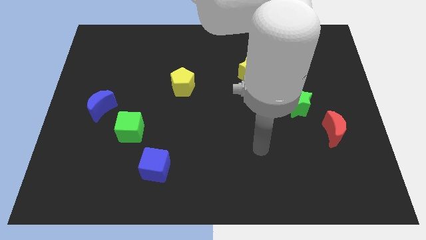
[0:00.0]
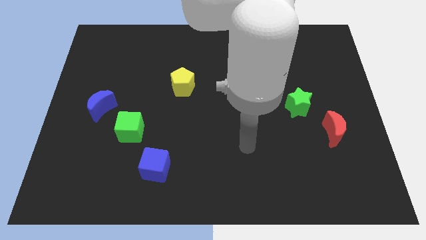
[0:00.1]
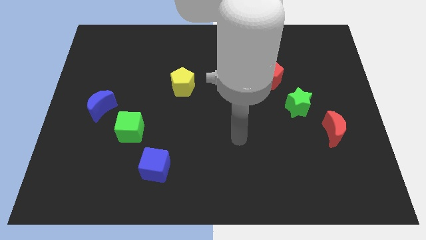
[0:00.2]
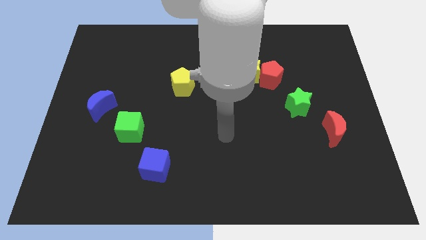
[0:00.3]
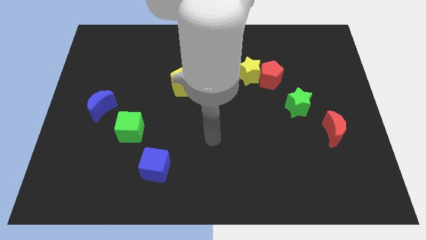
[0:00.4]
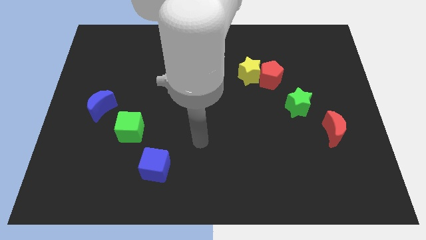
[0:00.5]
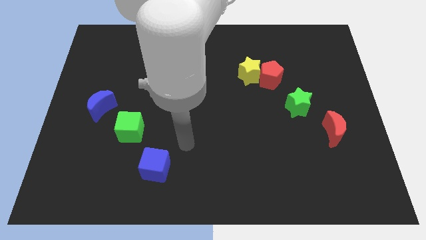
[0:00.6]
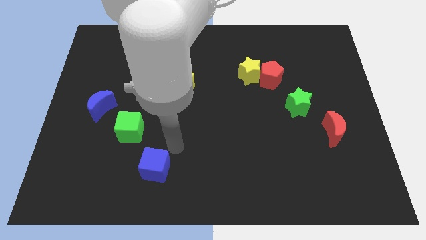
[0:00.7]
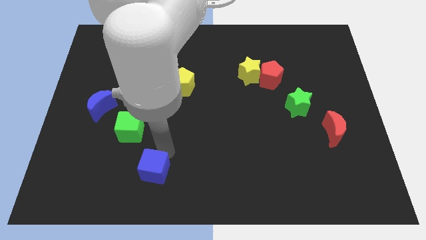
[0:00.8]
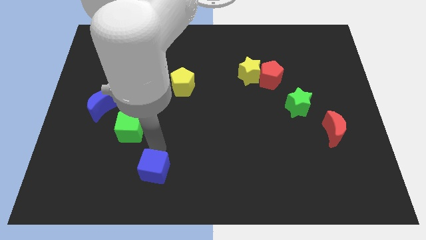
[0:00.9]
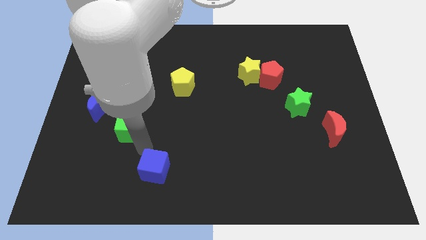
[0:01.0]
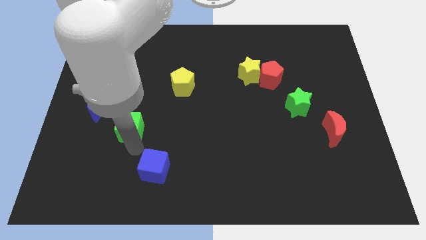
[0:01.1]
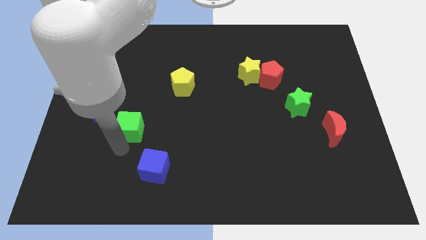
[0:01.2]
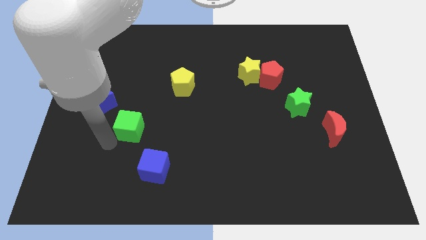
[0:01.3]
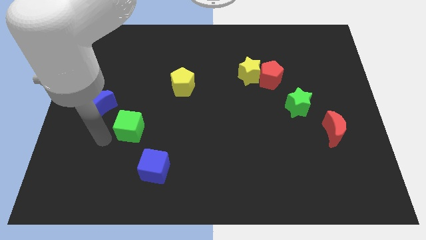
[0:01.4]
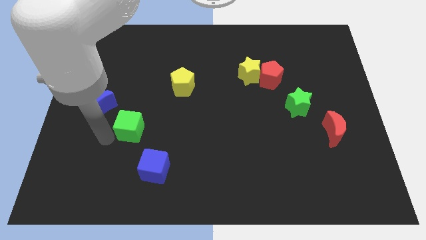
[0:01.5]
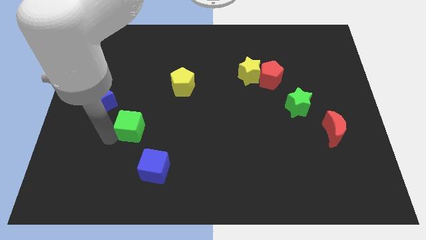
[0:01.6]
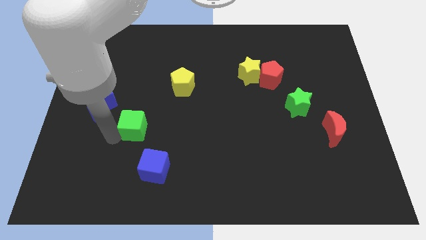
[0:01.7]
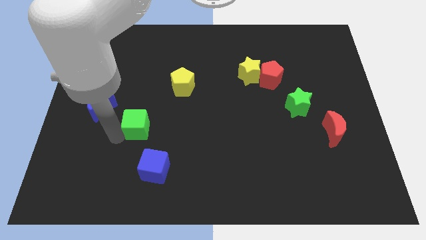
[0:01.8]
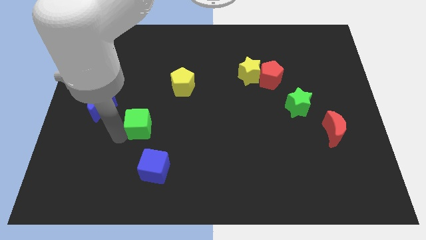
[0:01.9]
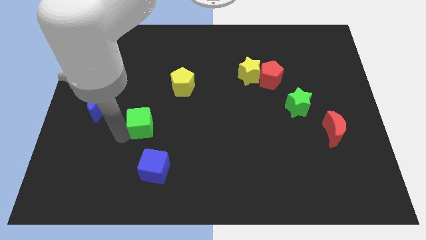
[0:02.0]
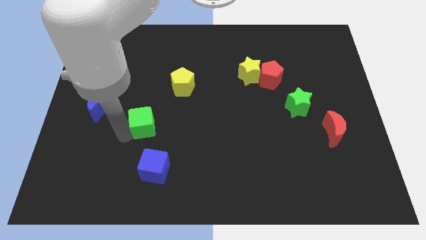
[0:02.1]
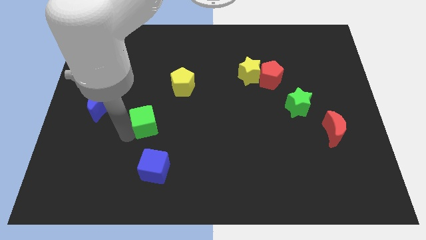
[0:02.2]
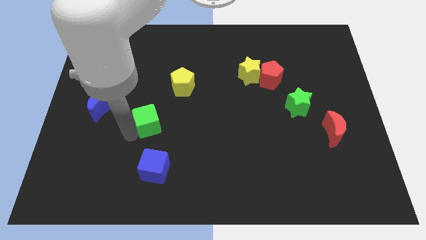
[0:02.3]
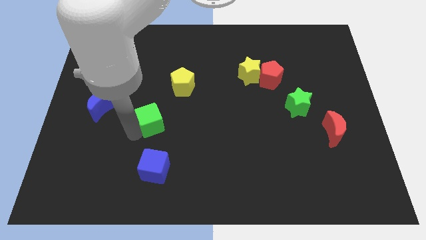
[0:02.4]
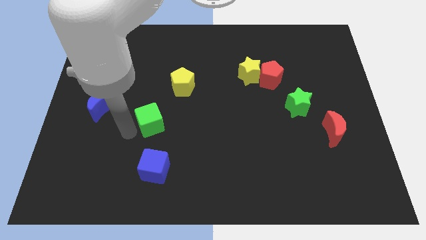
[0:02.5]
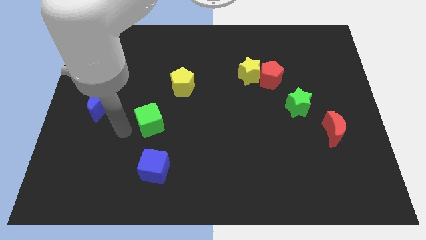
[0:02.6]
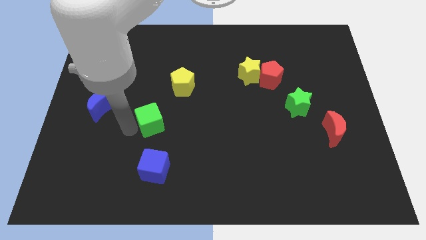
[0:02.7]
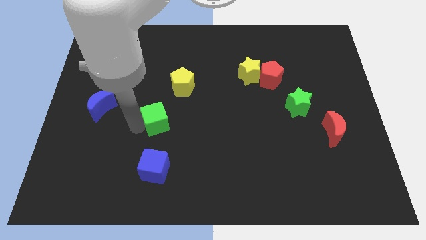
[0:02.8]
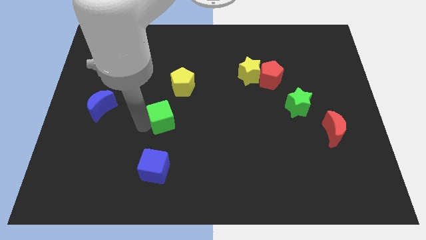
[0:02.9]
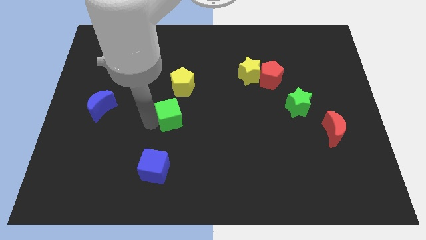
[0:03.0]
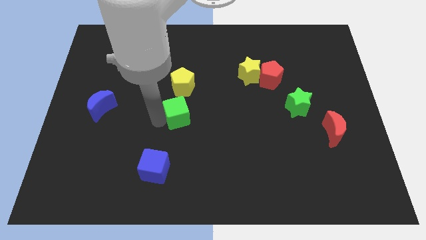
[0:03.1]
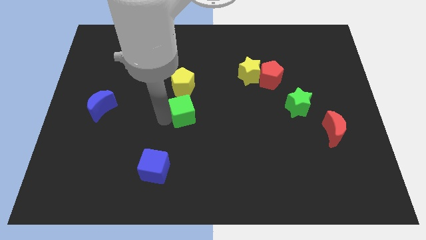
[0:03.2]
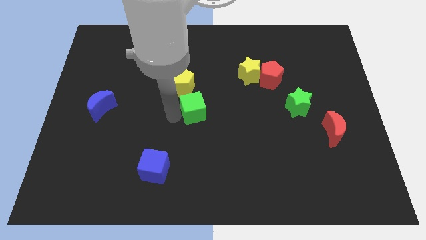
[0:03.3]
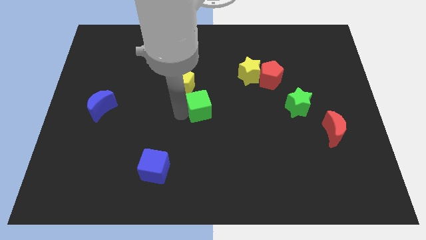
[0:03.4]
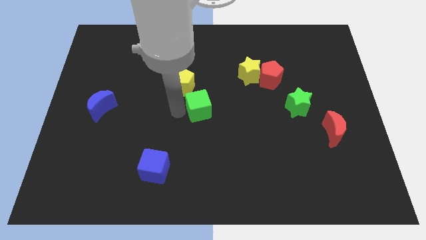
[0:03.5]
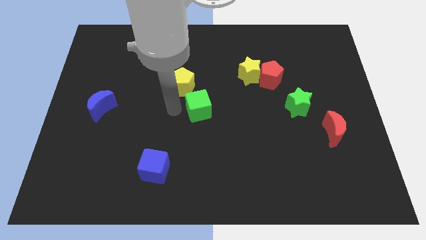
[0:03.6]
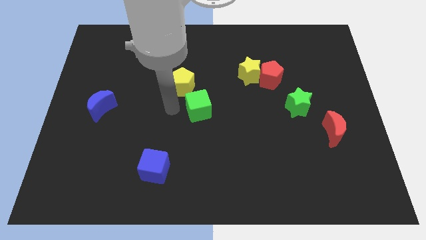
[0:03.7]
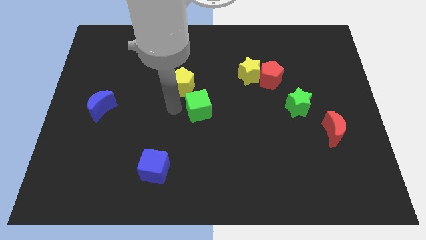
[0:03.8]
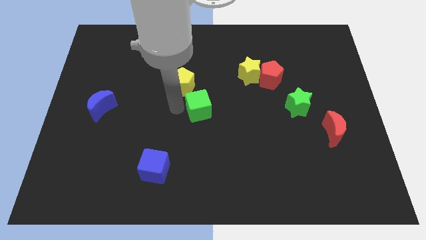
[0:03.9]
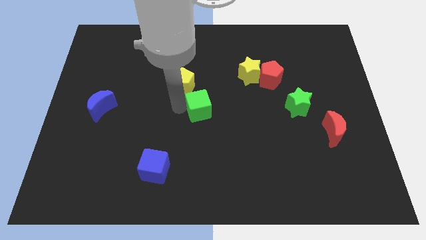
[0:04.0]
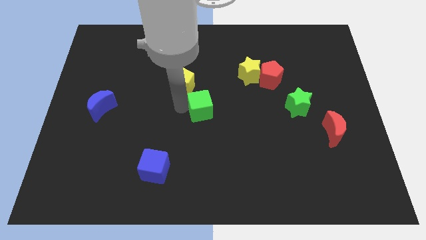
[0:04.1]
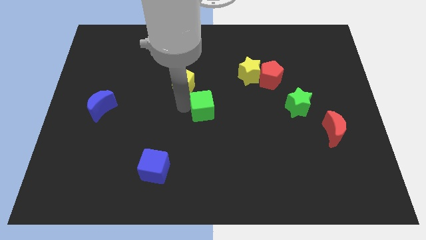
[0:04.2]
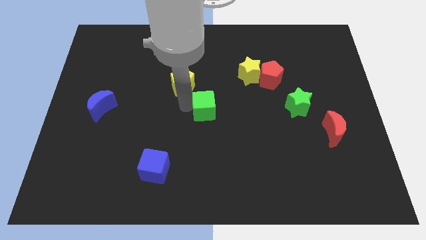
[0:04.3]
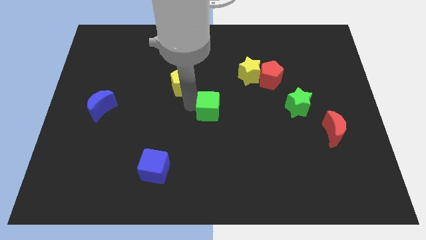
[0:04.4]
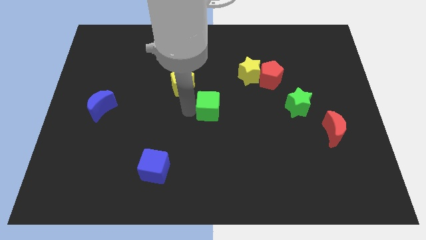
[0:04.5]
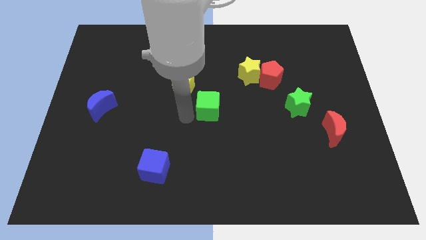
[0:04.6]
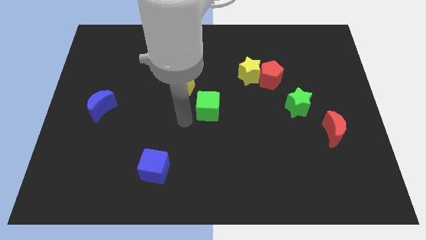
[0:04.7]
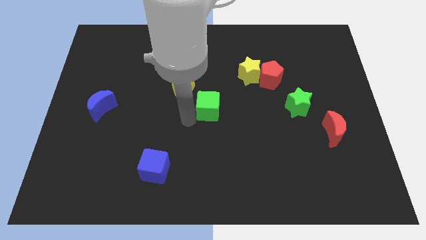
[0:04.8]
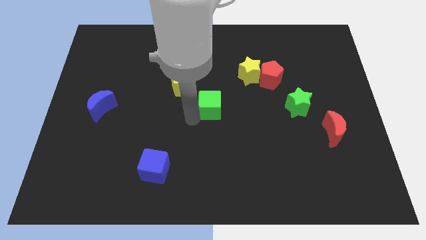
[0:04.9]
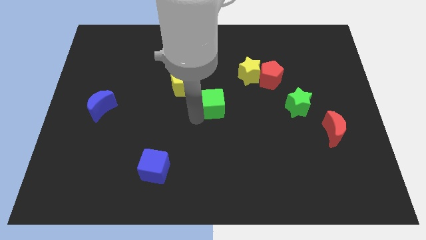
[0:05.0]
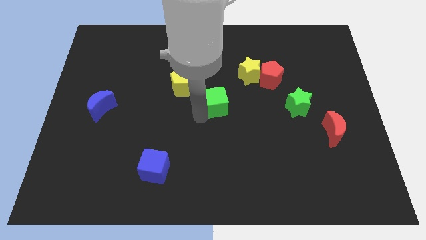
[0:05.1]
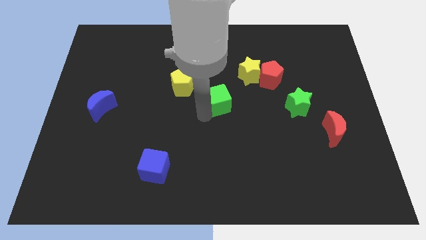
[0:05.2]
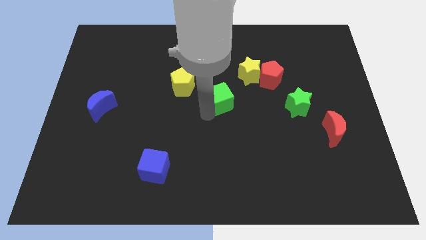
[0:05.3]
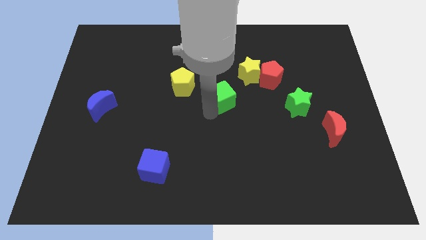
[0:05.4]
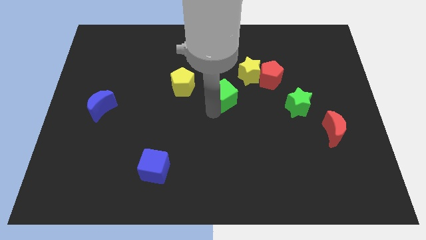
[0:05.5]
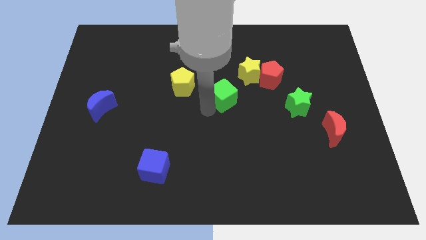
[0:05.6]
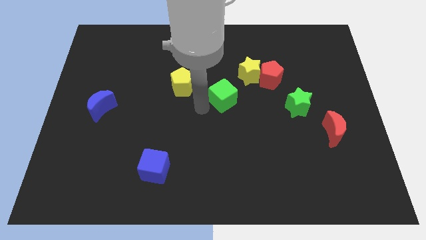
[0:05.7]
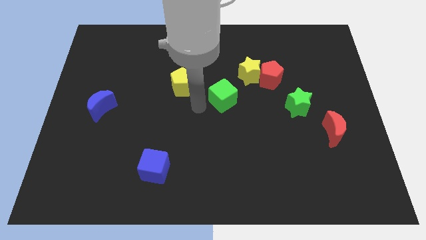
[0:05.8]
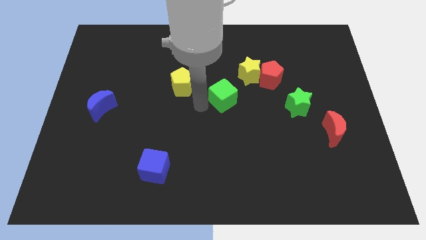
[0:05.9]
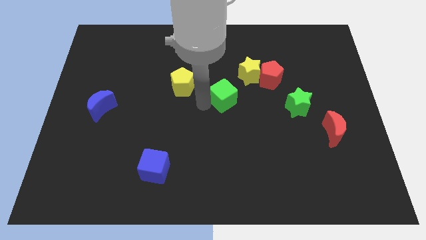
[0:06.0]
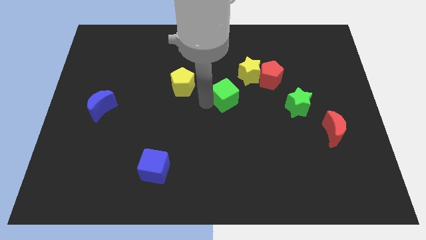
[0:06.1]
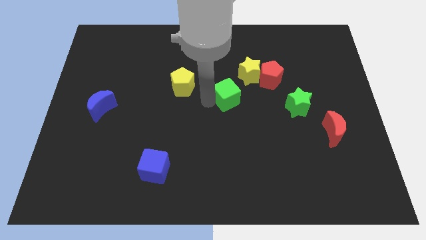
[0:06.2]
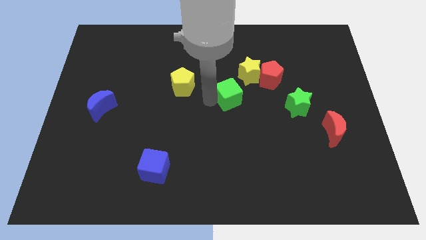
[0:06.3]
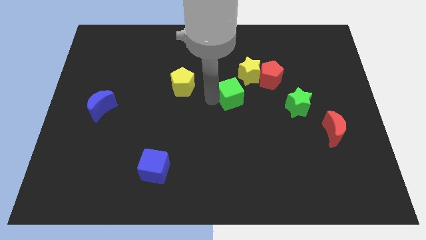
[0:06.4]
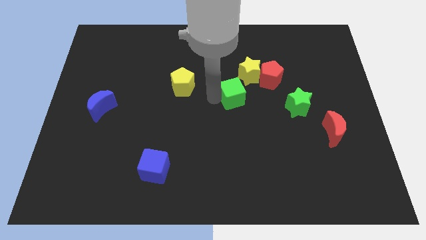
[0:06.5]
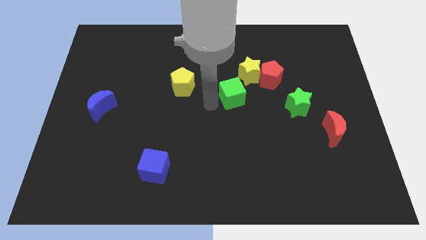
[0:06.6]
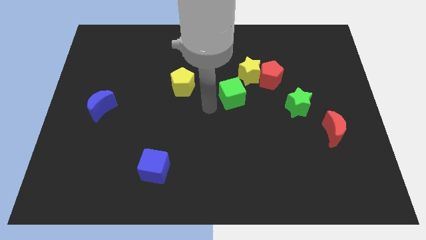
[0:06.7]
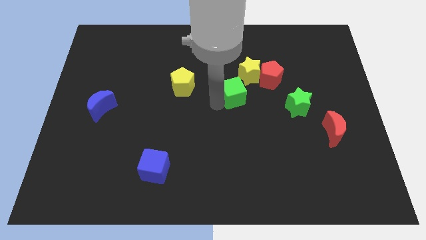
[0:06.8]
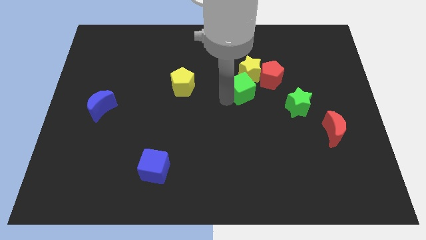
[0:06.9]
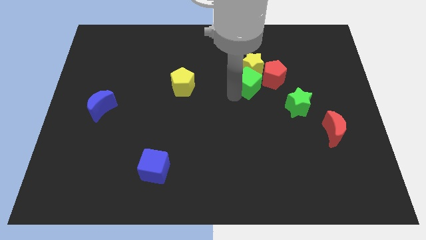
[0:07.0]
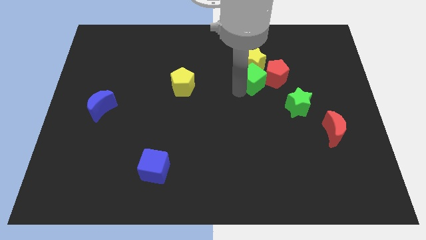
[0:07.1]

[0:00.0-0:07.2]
put the green cube towards the red pentagon

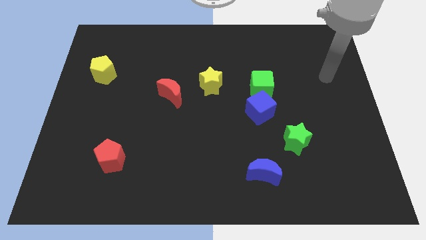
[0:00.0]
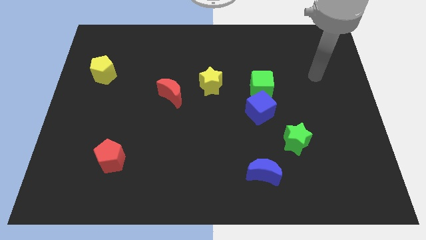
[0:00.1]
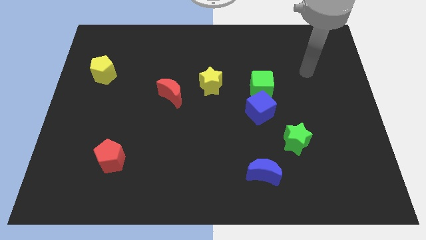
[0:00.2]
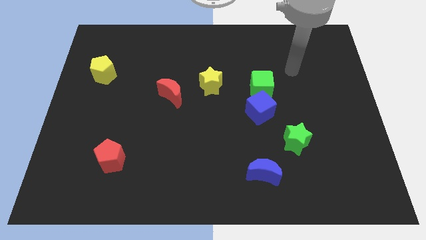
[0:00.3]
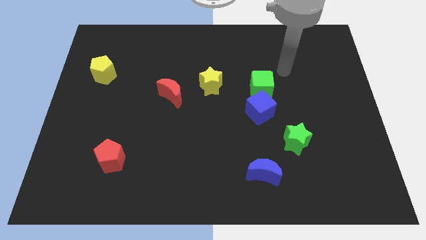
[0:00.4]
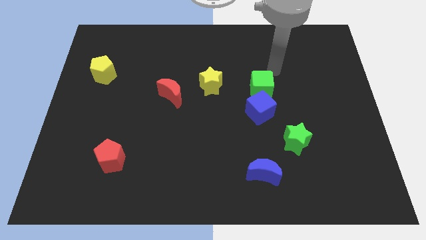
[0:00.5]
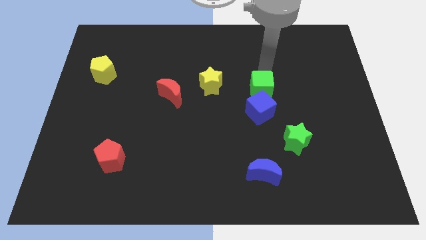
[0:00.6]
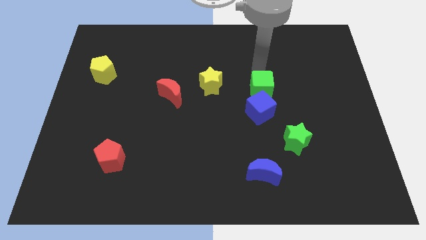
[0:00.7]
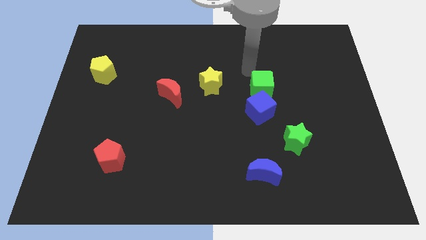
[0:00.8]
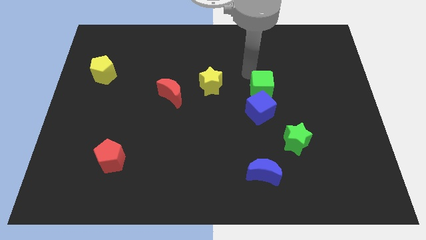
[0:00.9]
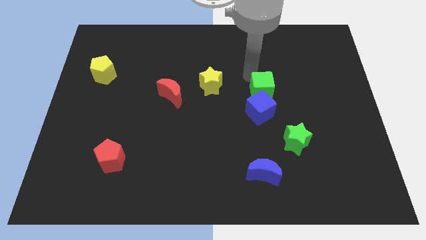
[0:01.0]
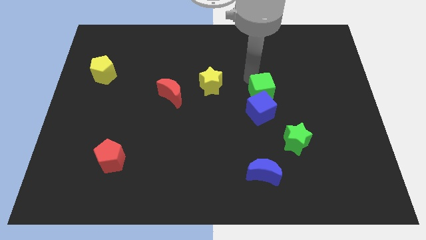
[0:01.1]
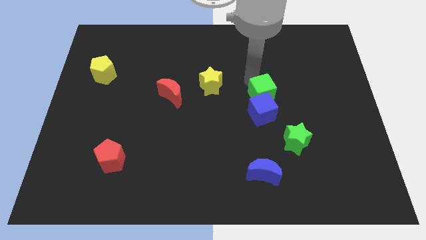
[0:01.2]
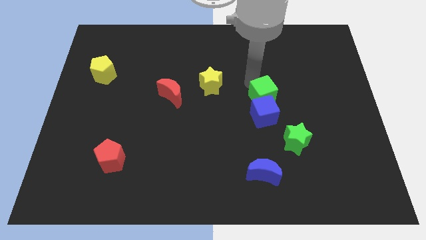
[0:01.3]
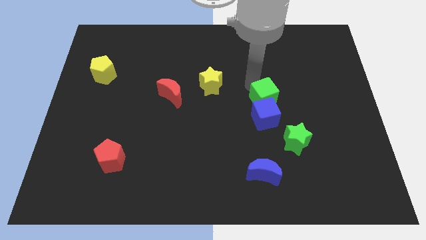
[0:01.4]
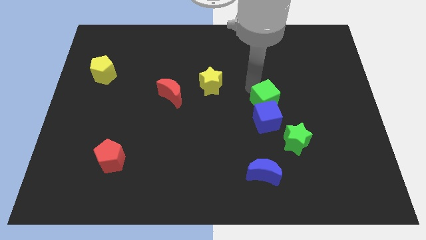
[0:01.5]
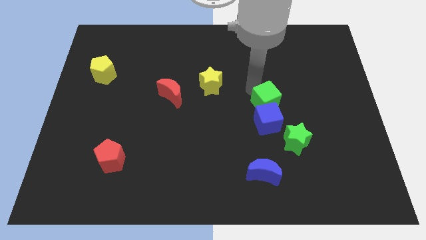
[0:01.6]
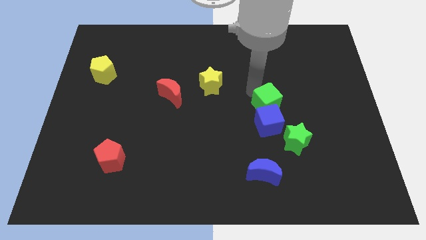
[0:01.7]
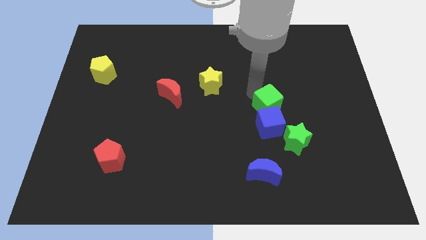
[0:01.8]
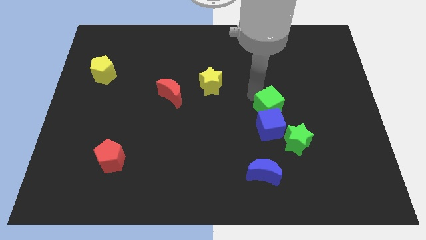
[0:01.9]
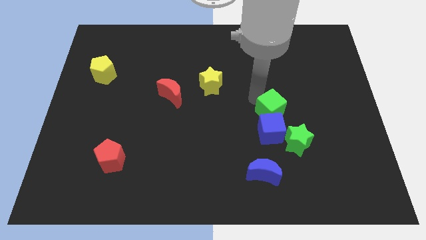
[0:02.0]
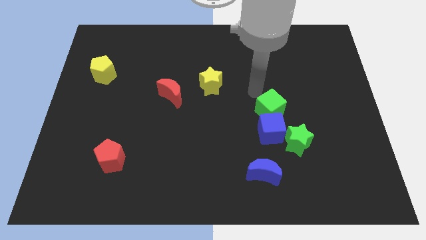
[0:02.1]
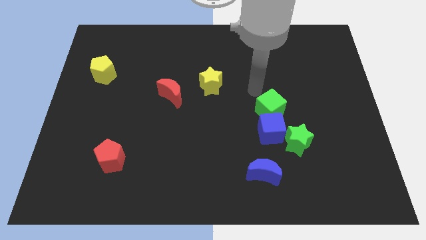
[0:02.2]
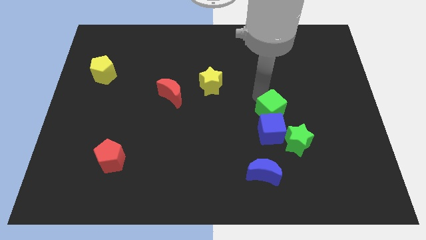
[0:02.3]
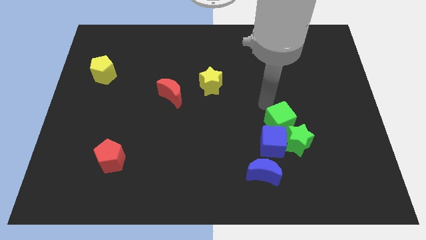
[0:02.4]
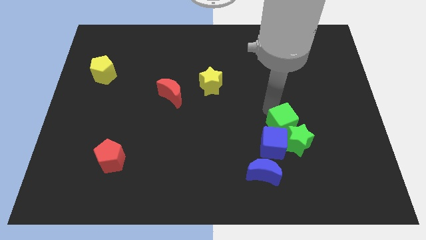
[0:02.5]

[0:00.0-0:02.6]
move the green cube to the green star
